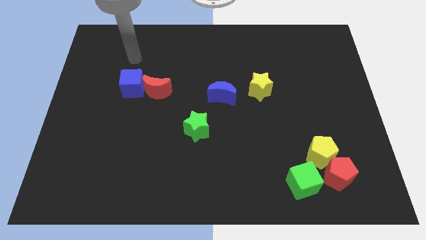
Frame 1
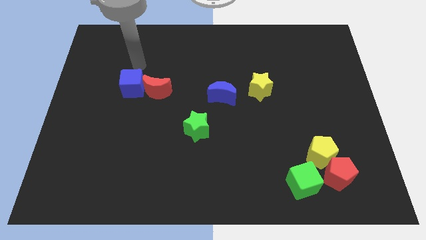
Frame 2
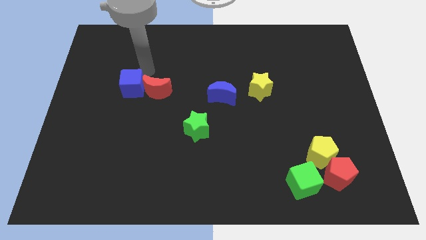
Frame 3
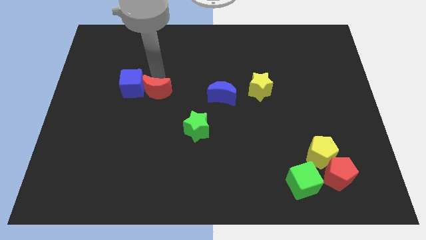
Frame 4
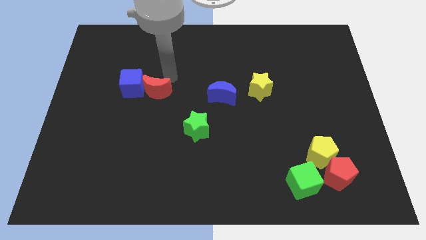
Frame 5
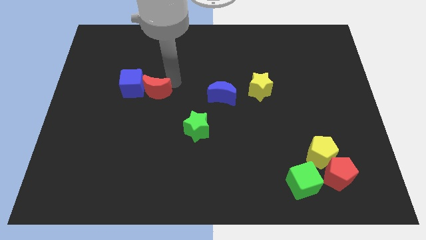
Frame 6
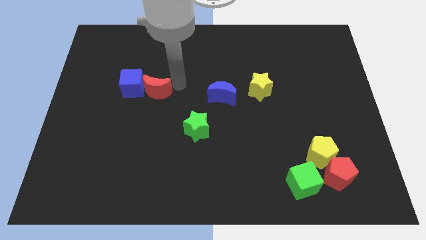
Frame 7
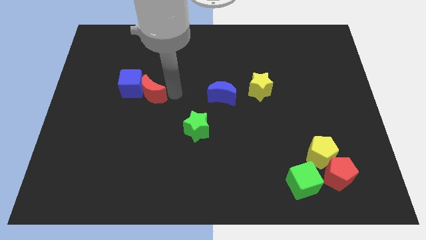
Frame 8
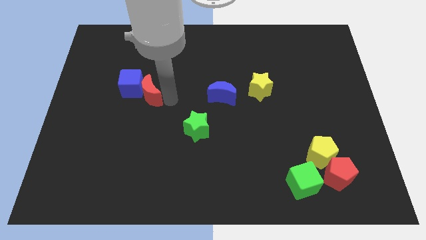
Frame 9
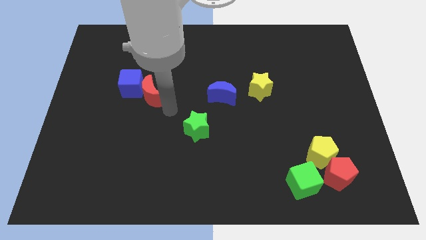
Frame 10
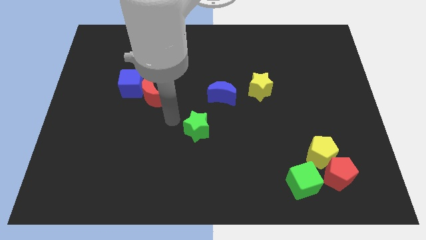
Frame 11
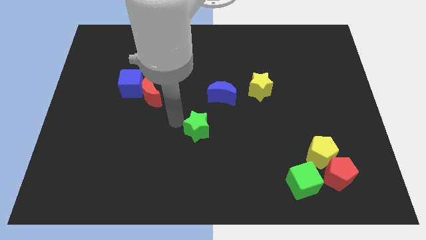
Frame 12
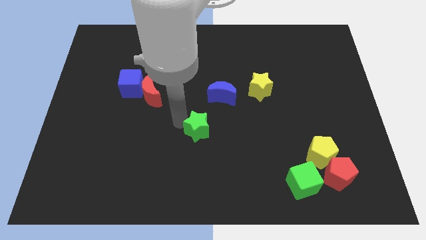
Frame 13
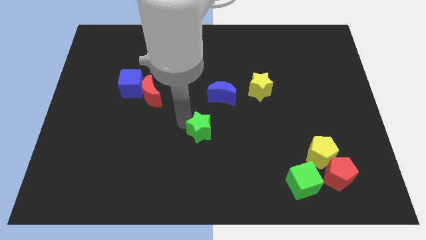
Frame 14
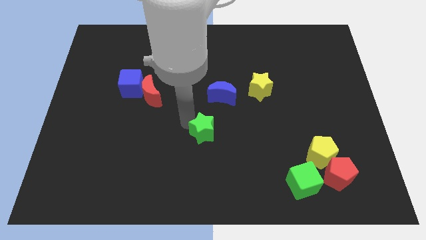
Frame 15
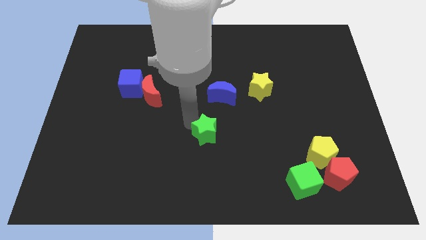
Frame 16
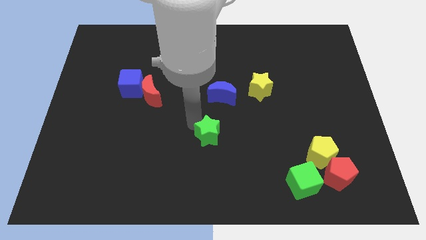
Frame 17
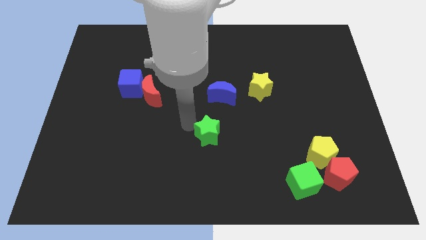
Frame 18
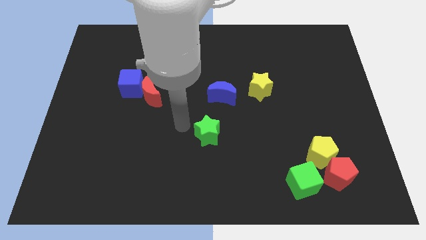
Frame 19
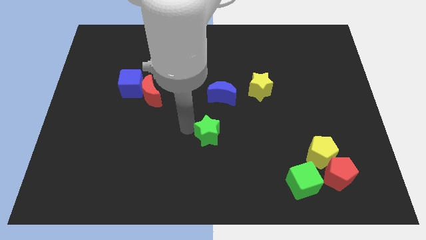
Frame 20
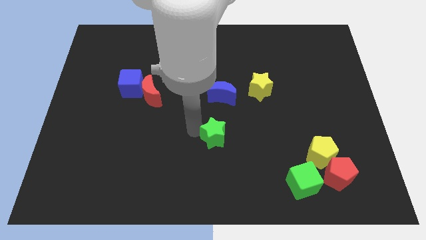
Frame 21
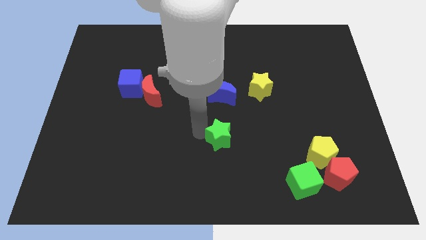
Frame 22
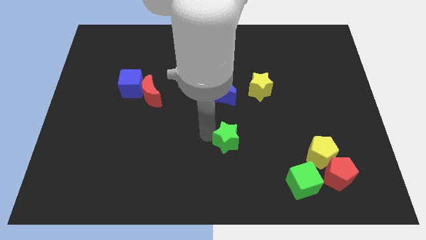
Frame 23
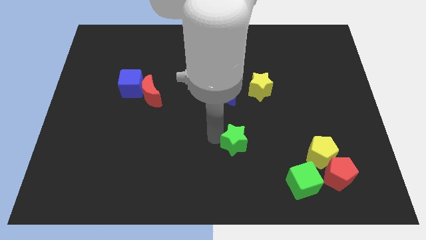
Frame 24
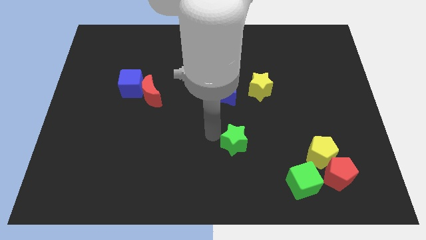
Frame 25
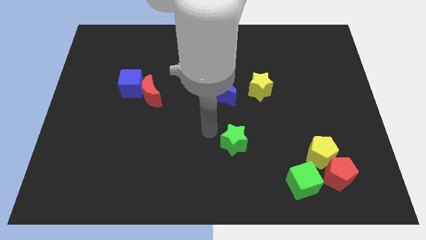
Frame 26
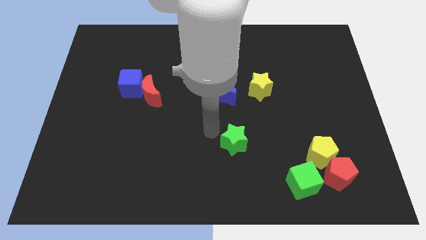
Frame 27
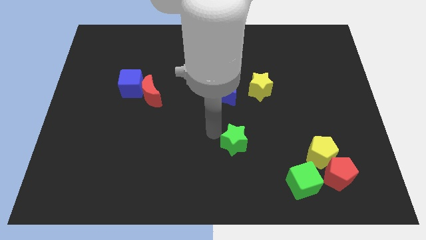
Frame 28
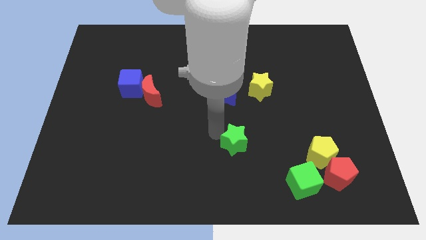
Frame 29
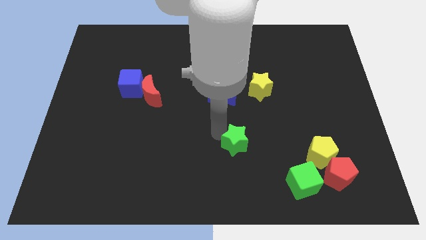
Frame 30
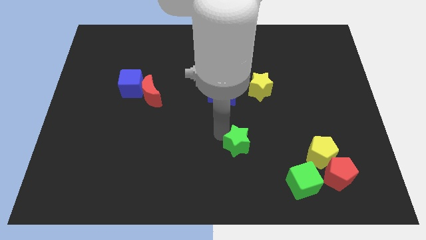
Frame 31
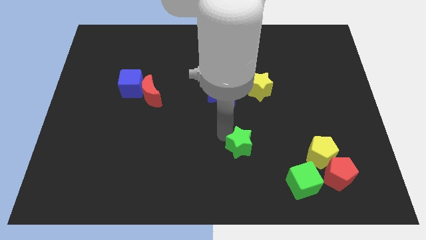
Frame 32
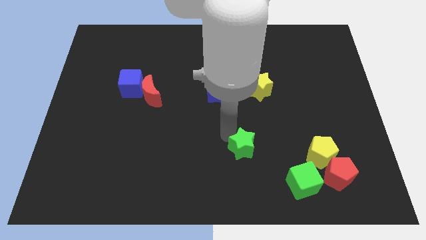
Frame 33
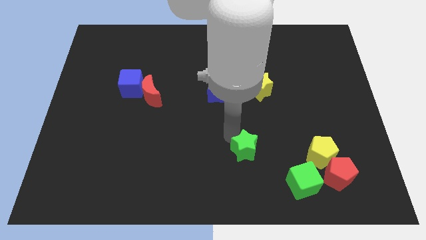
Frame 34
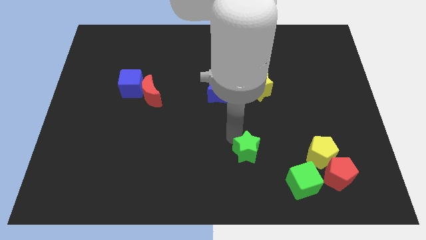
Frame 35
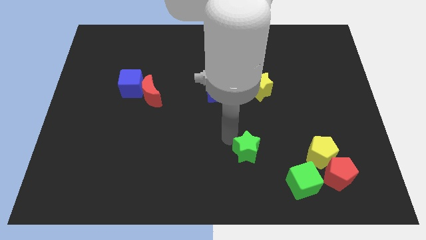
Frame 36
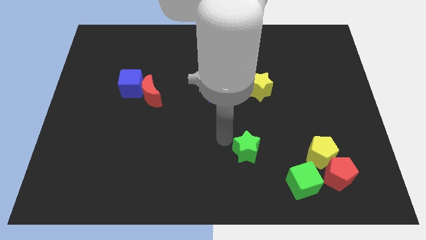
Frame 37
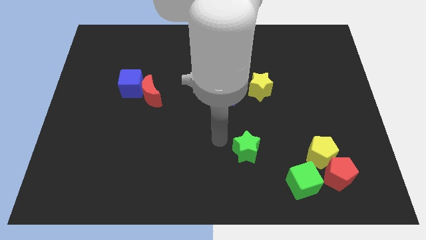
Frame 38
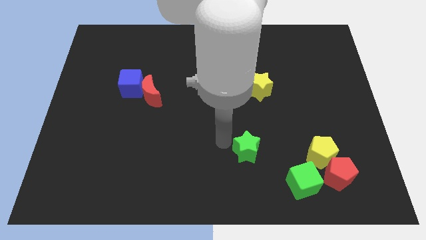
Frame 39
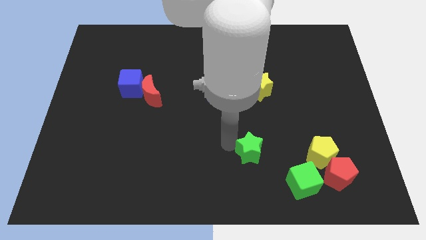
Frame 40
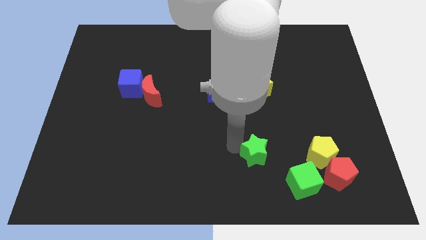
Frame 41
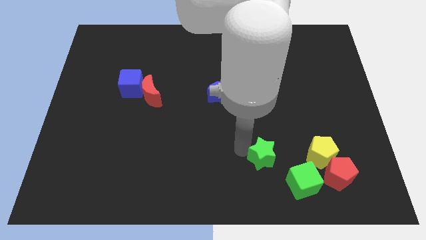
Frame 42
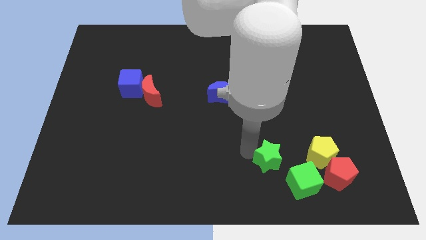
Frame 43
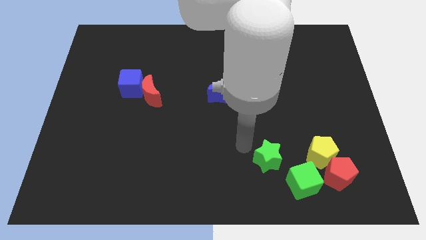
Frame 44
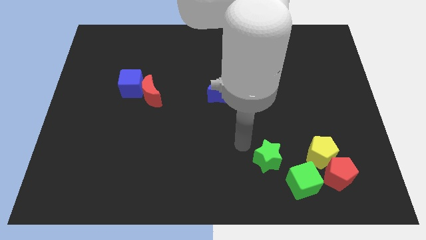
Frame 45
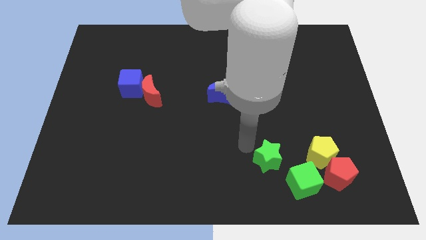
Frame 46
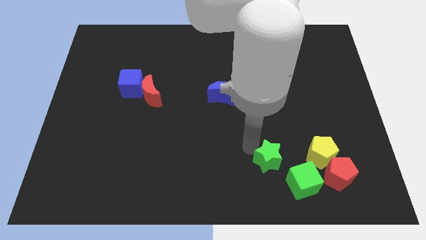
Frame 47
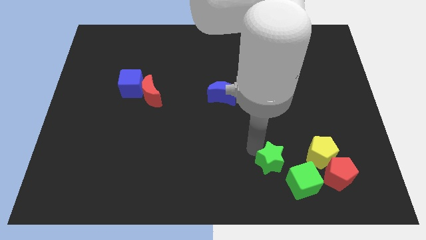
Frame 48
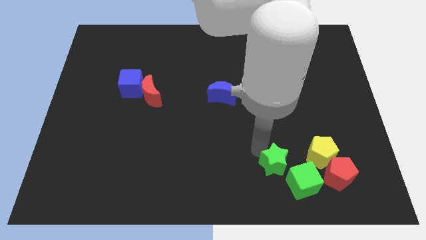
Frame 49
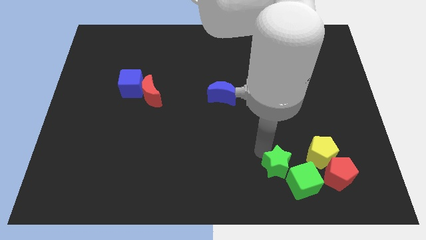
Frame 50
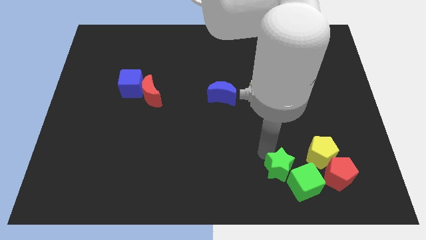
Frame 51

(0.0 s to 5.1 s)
move the green star next to the green cube

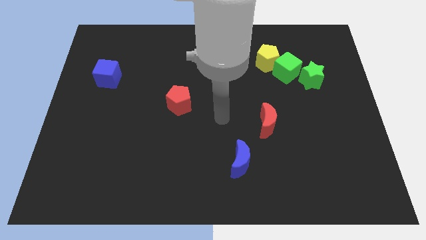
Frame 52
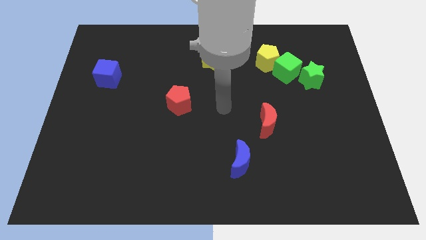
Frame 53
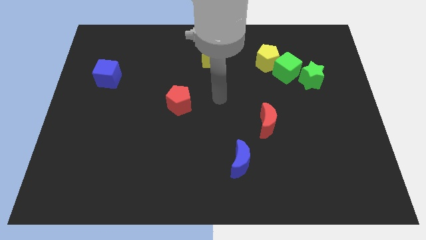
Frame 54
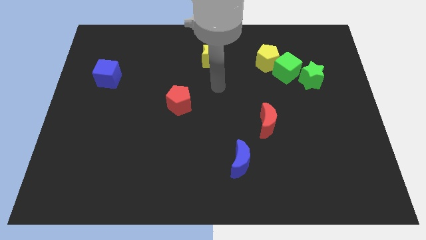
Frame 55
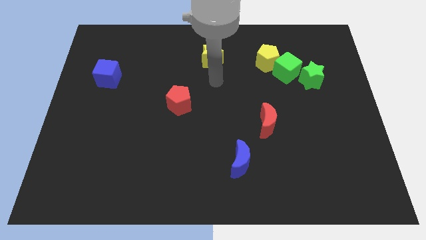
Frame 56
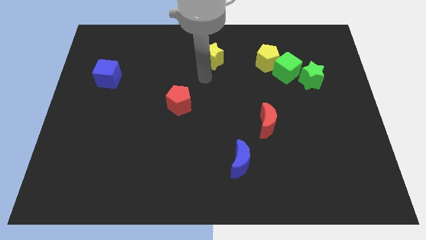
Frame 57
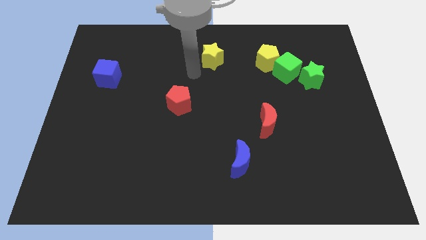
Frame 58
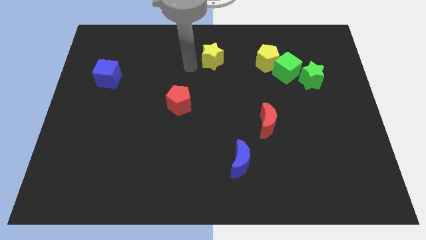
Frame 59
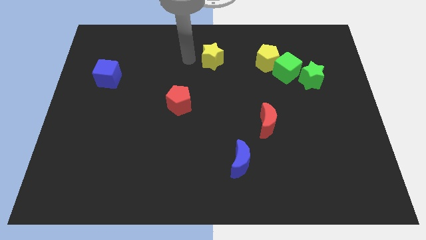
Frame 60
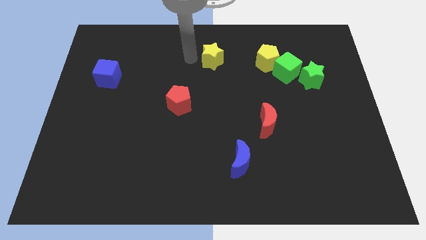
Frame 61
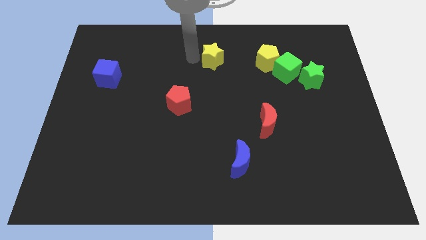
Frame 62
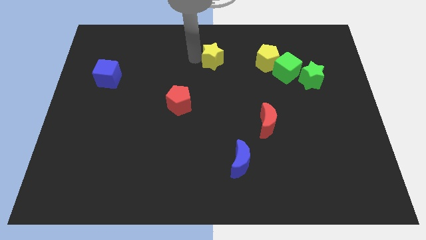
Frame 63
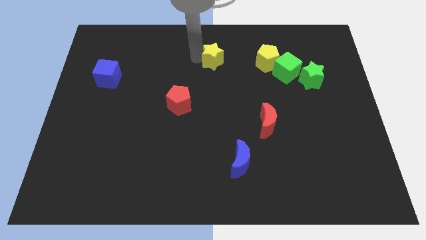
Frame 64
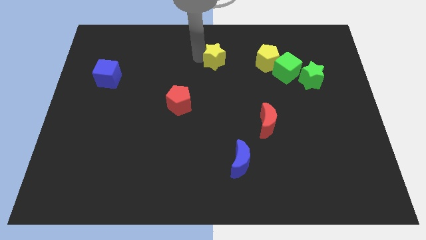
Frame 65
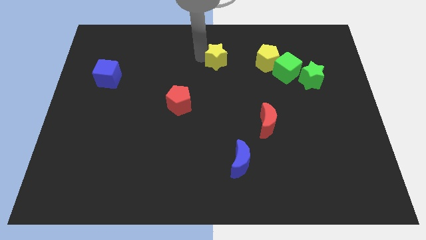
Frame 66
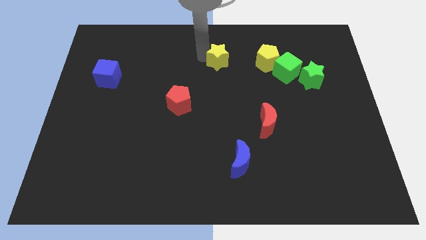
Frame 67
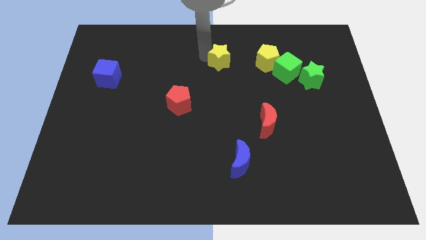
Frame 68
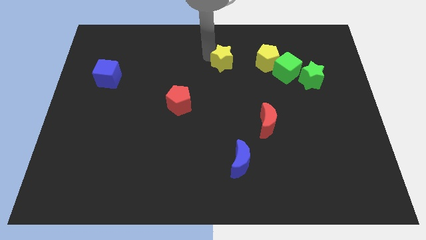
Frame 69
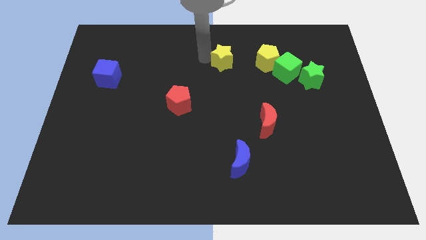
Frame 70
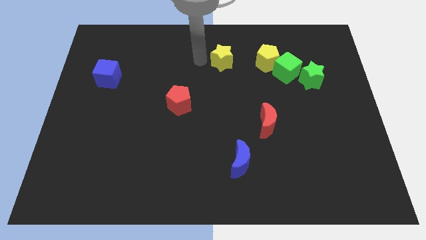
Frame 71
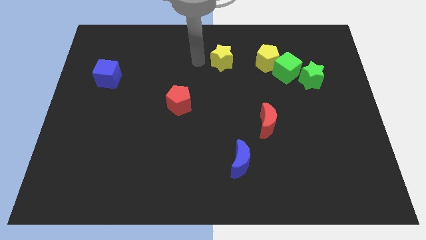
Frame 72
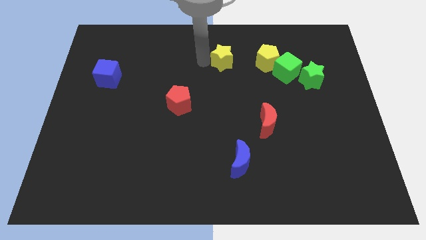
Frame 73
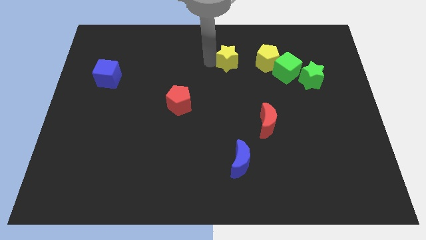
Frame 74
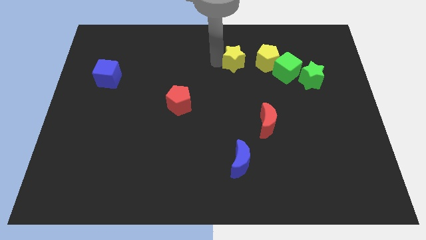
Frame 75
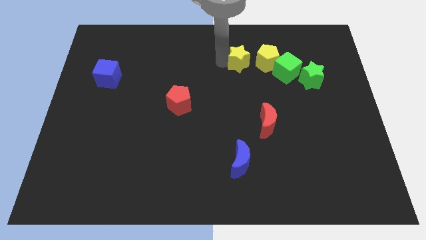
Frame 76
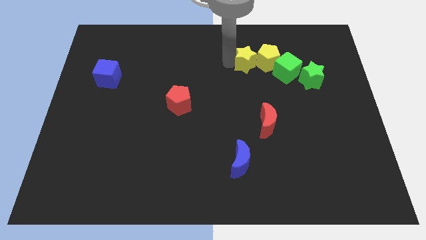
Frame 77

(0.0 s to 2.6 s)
slide the yellow star to the yellow pentagon
